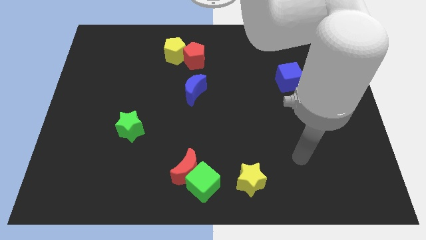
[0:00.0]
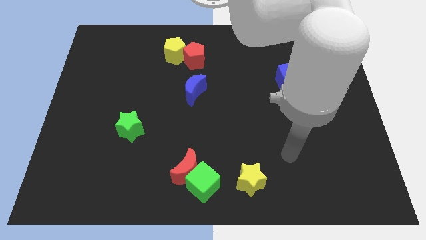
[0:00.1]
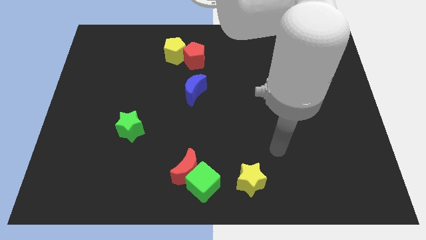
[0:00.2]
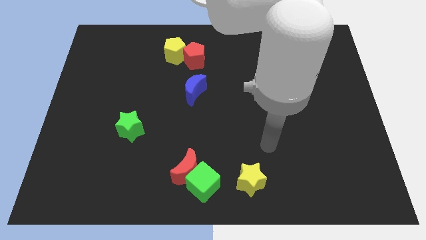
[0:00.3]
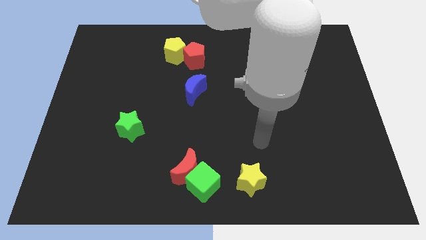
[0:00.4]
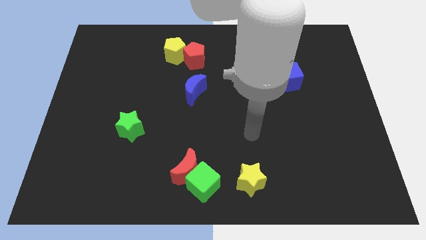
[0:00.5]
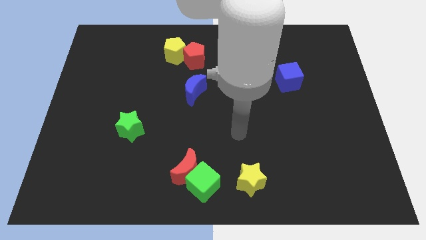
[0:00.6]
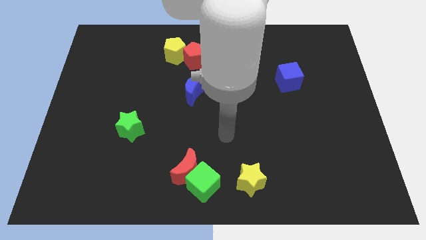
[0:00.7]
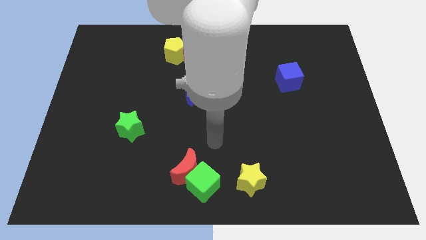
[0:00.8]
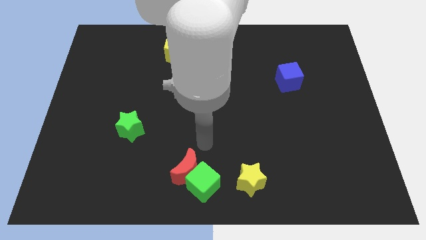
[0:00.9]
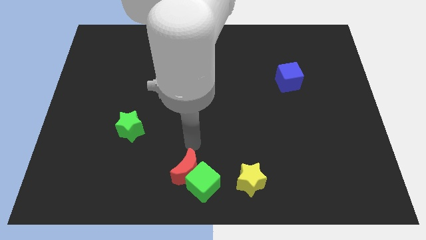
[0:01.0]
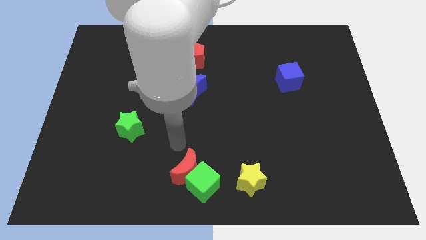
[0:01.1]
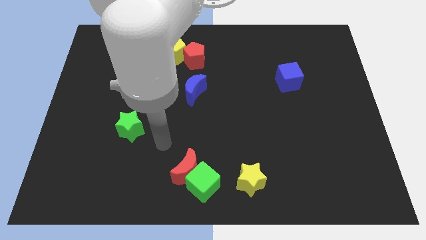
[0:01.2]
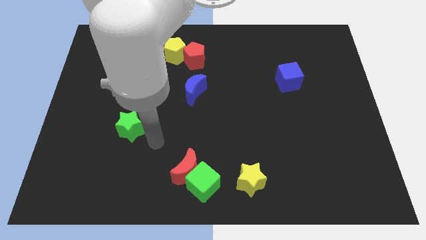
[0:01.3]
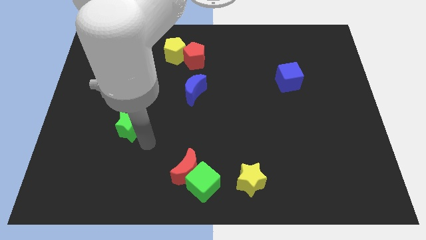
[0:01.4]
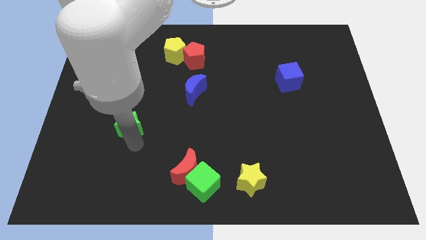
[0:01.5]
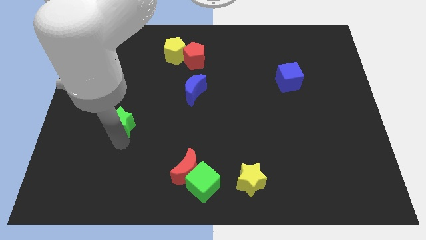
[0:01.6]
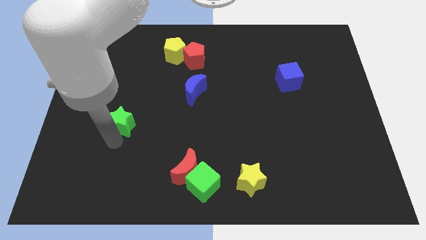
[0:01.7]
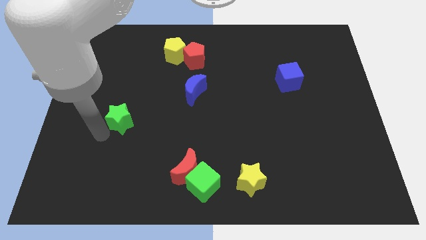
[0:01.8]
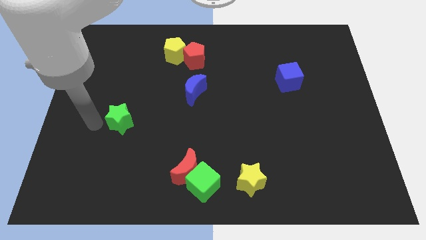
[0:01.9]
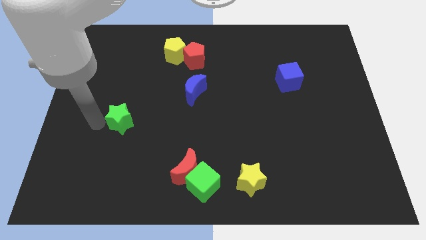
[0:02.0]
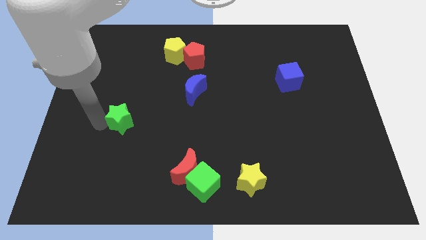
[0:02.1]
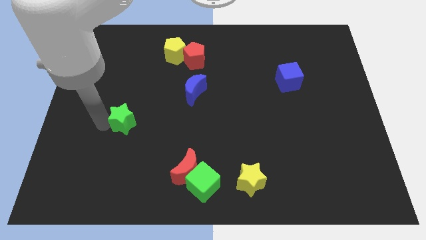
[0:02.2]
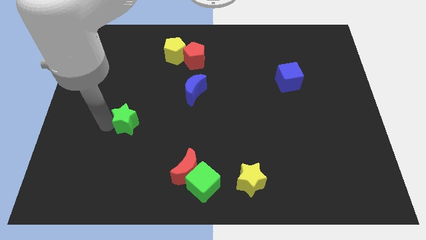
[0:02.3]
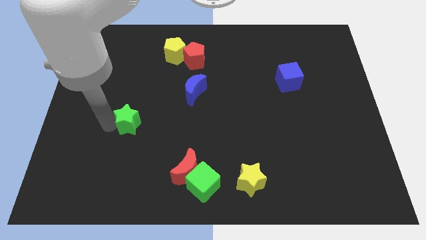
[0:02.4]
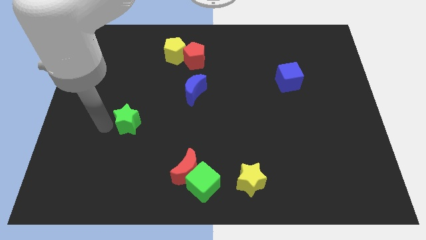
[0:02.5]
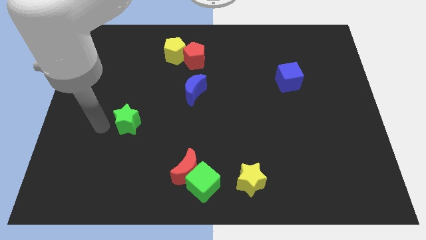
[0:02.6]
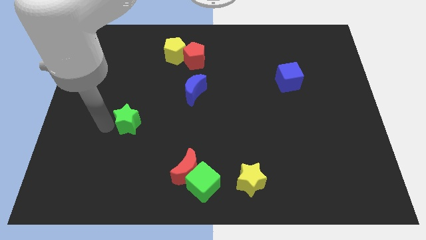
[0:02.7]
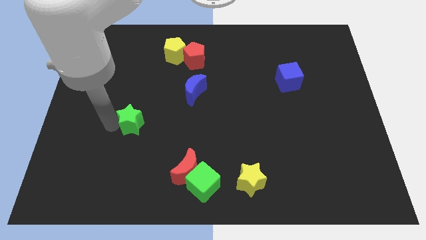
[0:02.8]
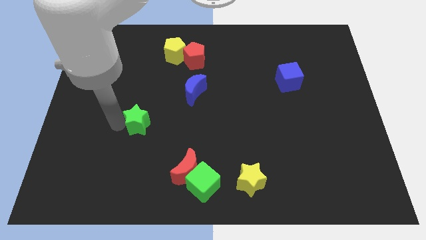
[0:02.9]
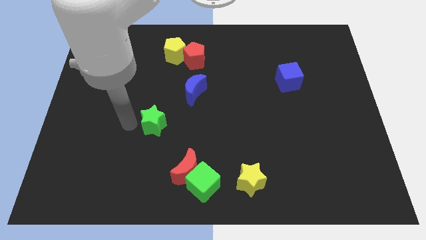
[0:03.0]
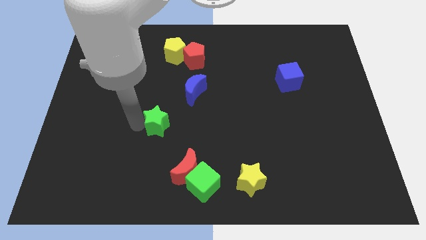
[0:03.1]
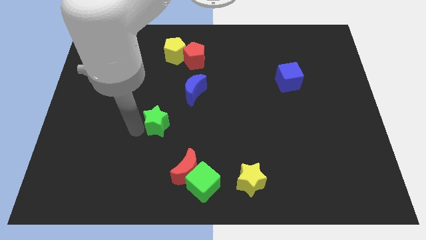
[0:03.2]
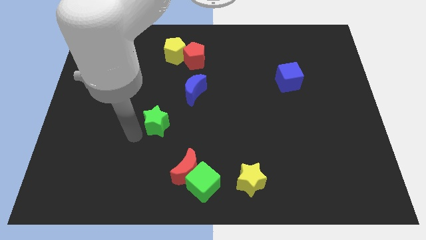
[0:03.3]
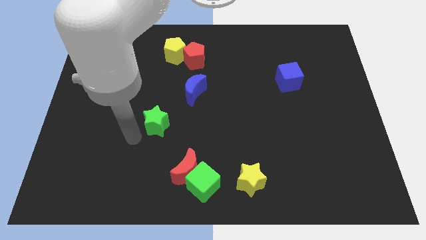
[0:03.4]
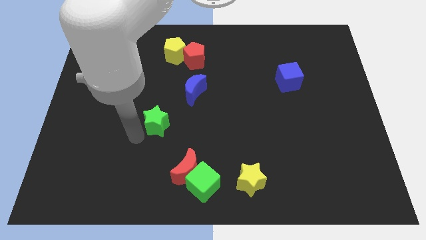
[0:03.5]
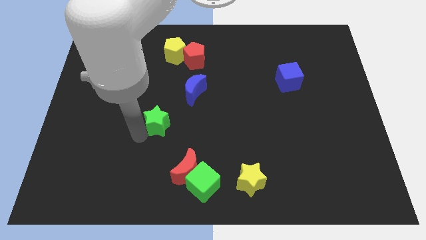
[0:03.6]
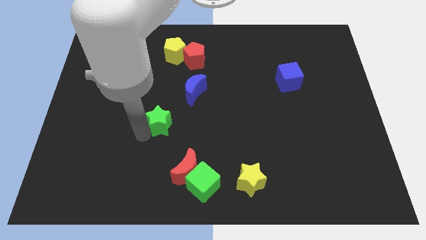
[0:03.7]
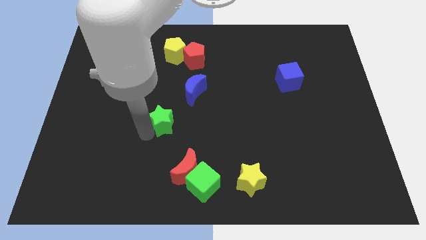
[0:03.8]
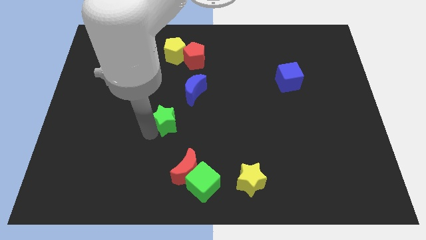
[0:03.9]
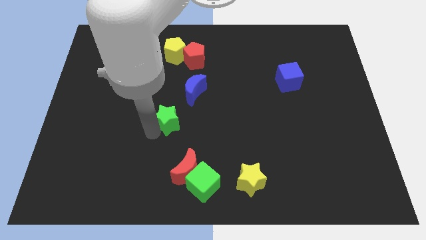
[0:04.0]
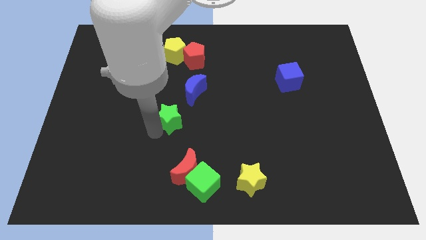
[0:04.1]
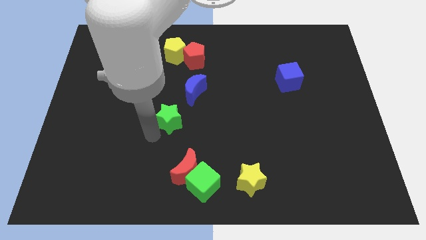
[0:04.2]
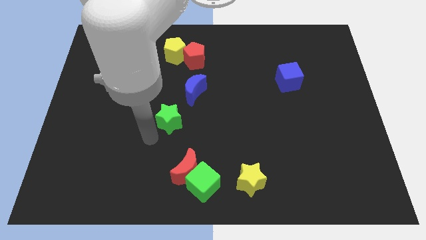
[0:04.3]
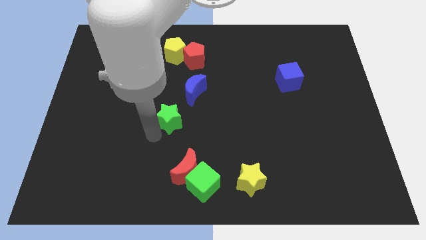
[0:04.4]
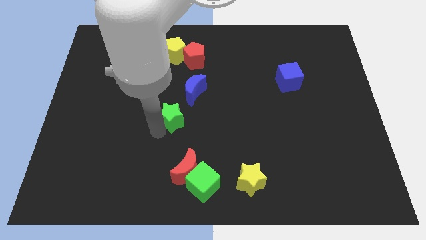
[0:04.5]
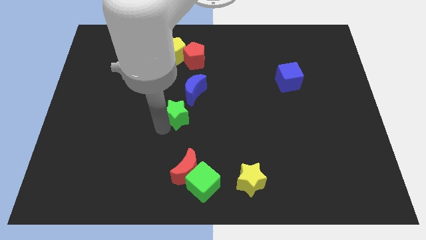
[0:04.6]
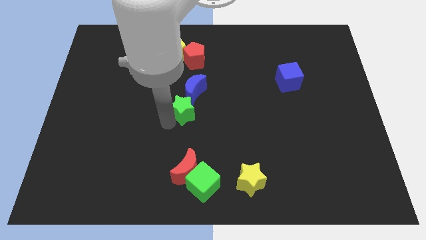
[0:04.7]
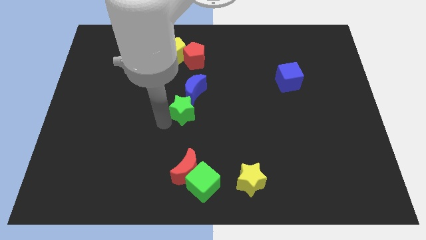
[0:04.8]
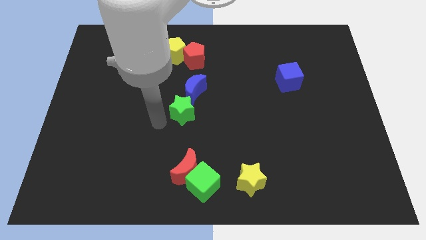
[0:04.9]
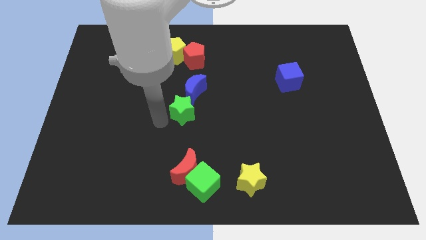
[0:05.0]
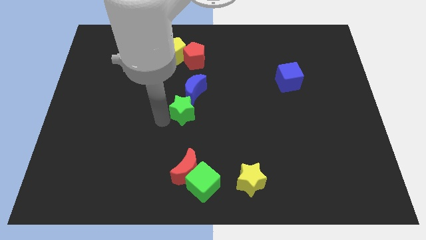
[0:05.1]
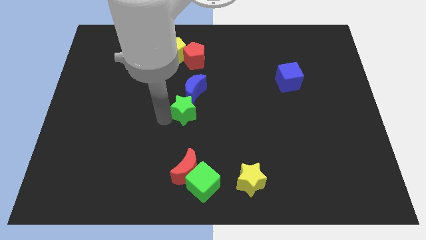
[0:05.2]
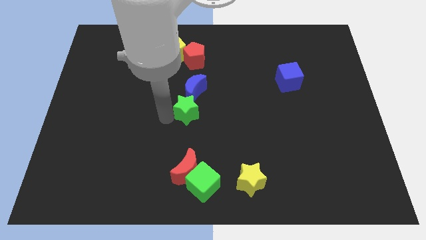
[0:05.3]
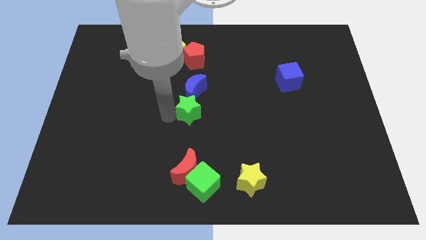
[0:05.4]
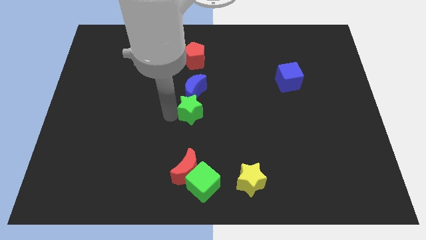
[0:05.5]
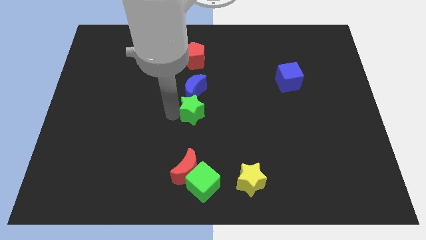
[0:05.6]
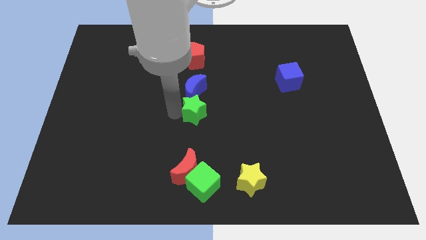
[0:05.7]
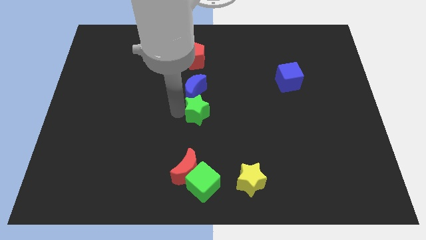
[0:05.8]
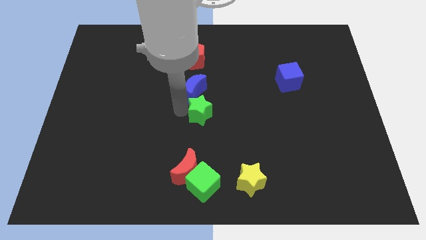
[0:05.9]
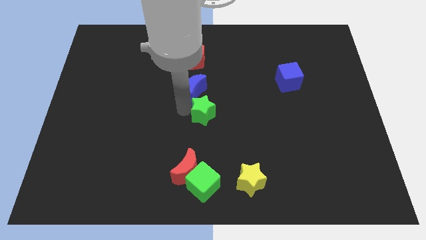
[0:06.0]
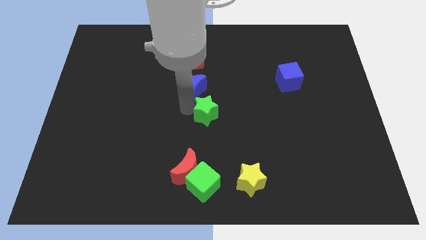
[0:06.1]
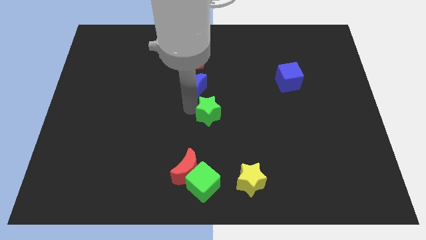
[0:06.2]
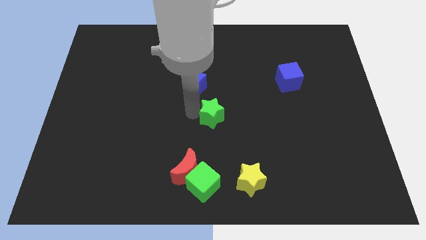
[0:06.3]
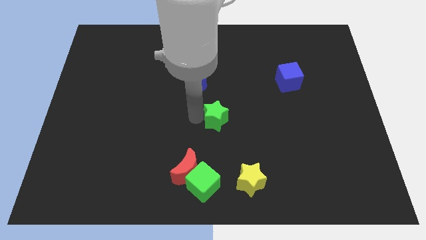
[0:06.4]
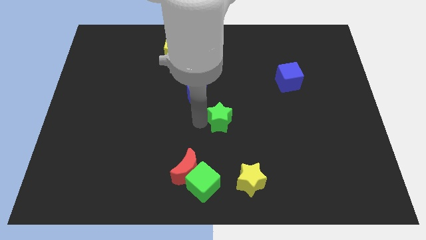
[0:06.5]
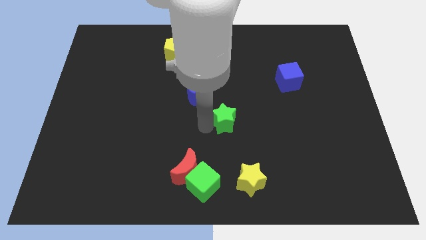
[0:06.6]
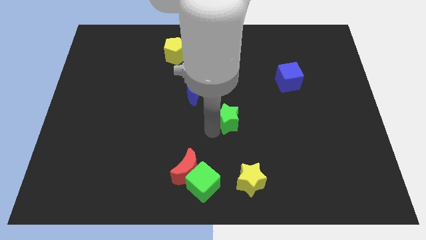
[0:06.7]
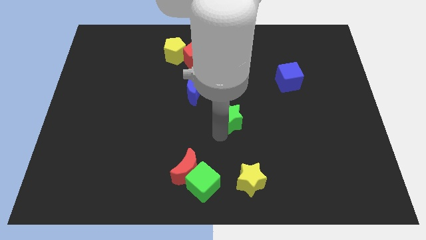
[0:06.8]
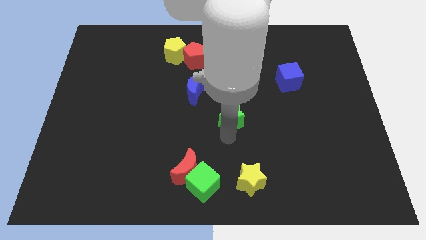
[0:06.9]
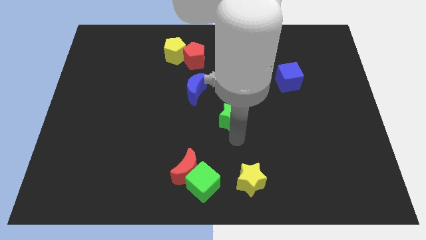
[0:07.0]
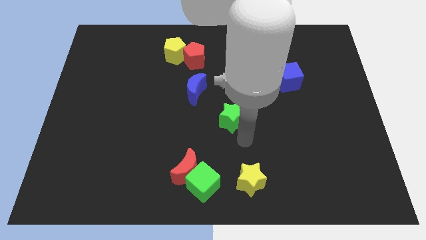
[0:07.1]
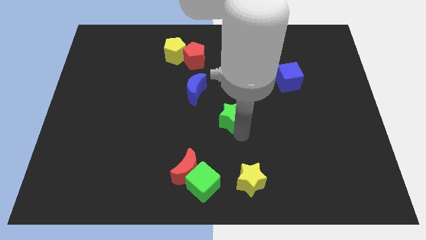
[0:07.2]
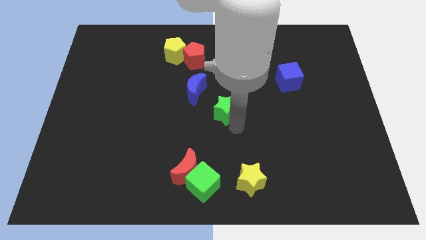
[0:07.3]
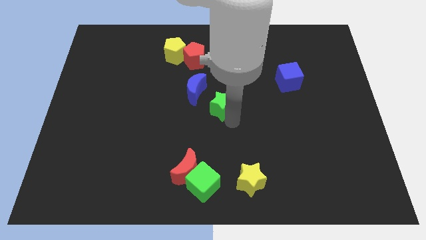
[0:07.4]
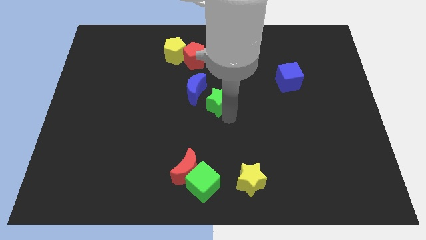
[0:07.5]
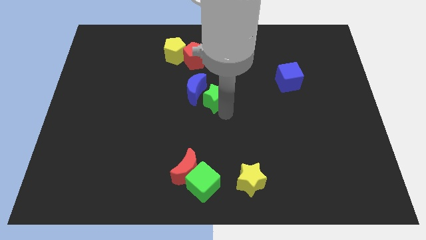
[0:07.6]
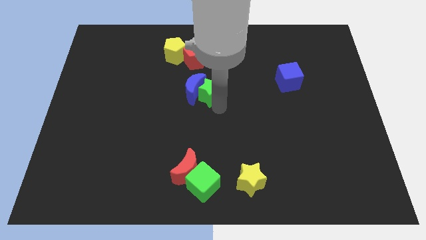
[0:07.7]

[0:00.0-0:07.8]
put the green star diagonally up and to the right of the blue moon
